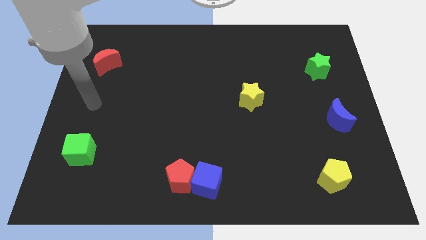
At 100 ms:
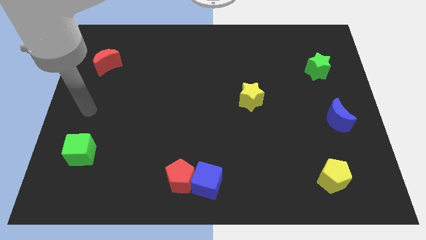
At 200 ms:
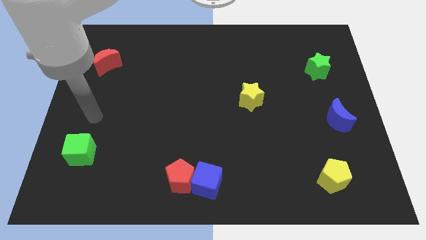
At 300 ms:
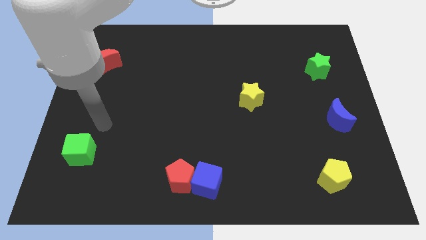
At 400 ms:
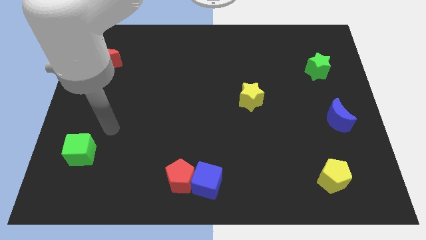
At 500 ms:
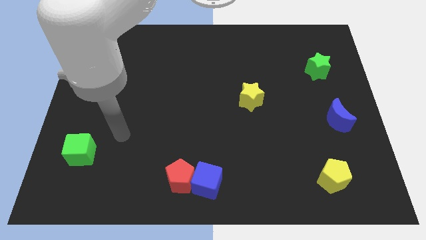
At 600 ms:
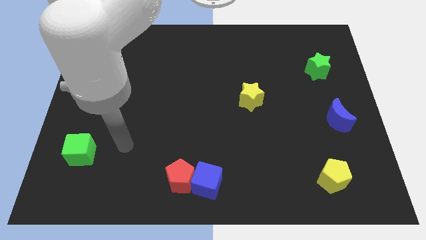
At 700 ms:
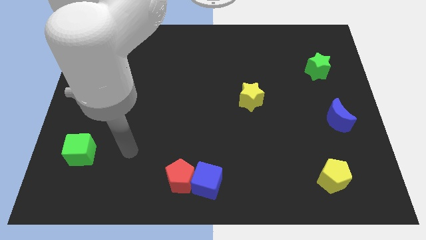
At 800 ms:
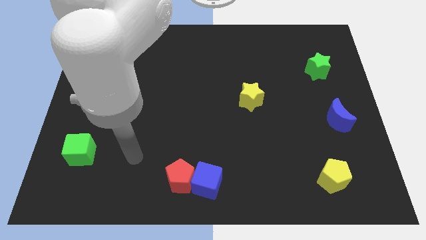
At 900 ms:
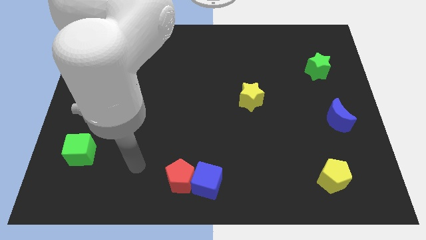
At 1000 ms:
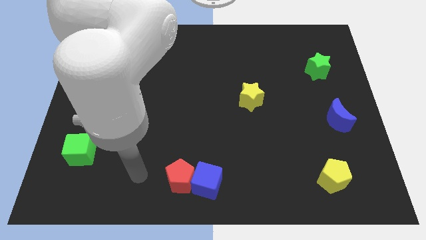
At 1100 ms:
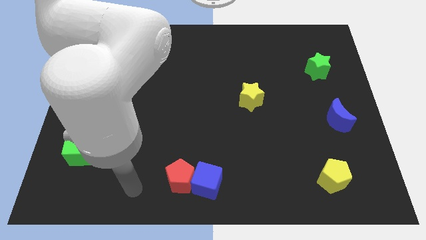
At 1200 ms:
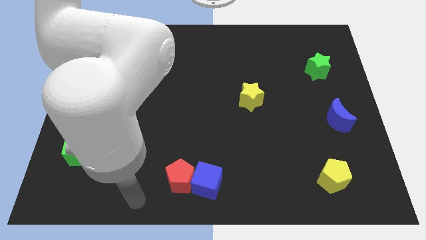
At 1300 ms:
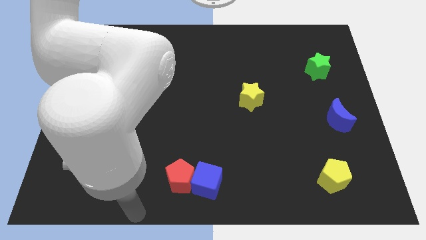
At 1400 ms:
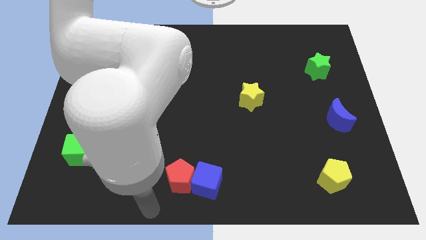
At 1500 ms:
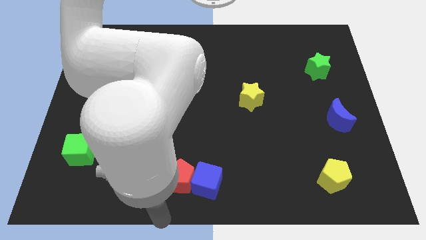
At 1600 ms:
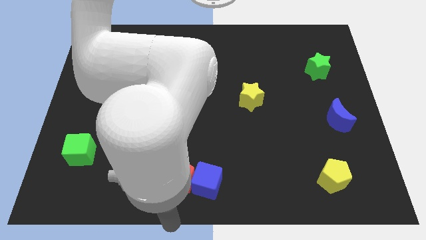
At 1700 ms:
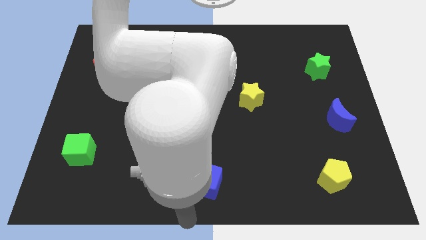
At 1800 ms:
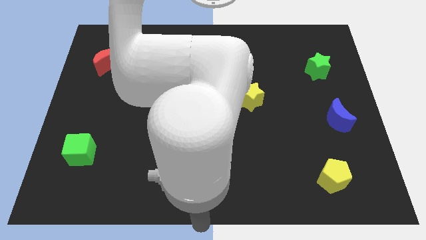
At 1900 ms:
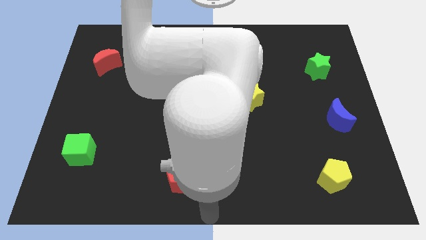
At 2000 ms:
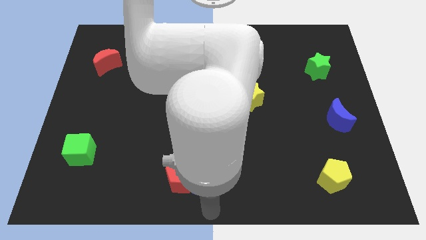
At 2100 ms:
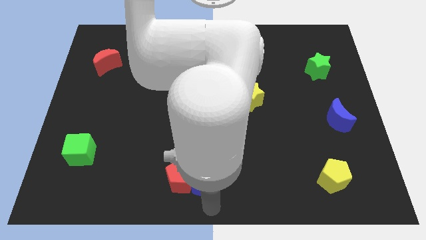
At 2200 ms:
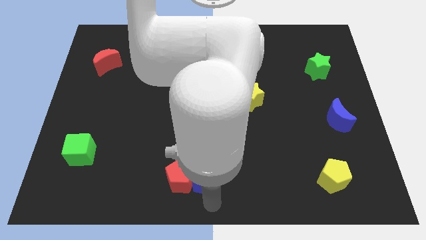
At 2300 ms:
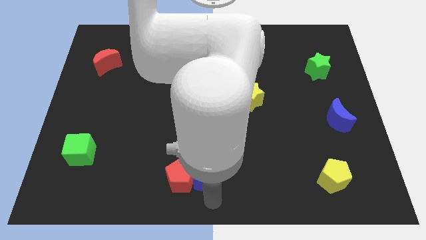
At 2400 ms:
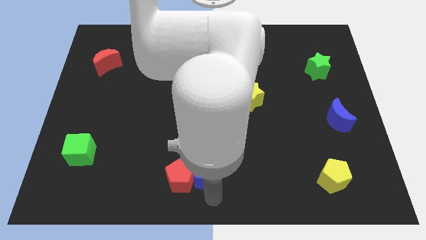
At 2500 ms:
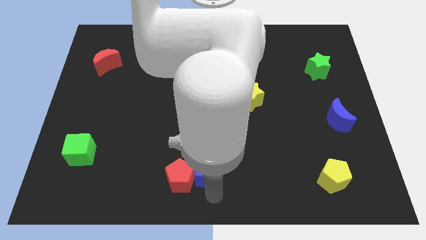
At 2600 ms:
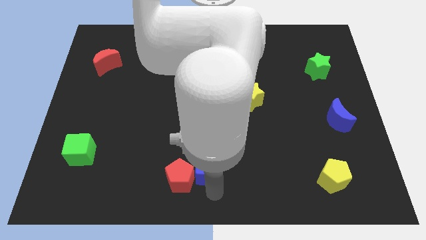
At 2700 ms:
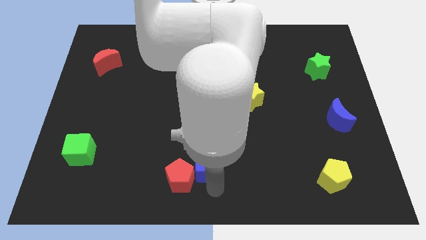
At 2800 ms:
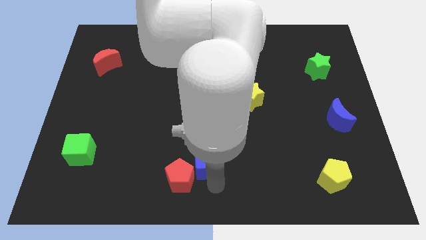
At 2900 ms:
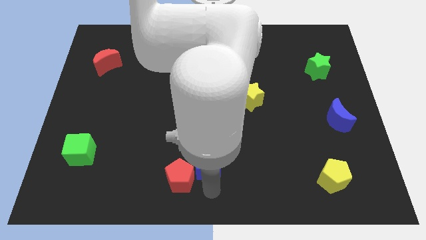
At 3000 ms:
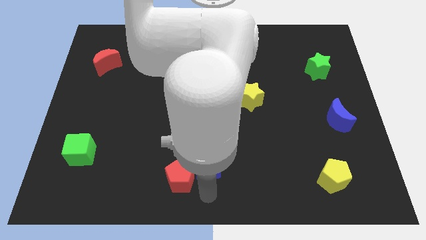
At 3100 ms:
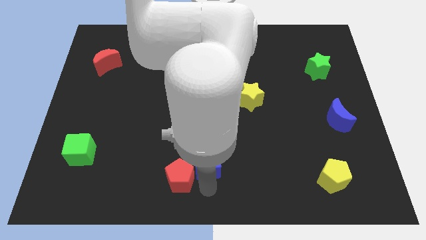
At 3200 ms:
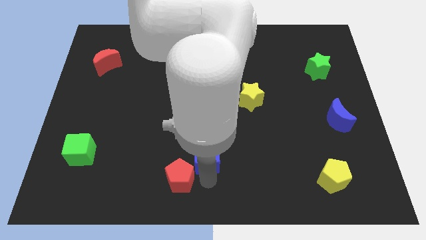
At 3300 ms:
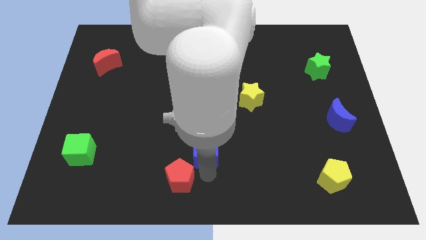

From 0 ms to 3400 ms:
slide the blue cube slightly upwards

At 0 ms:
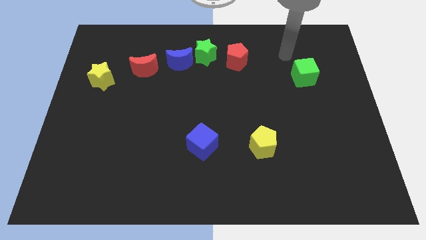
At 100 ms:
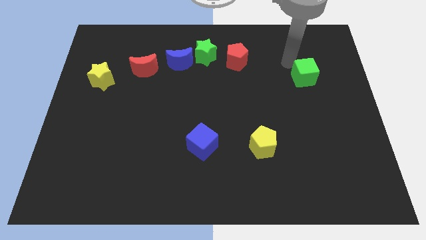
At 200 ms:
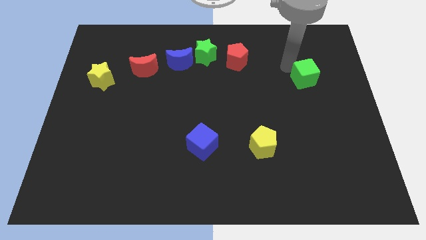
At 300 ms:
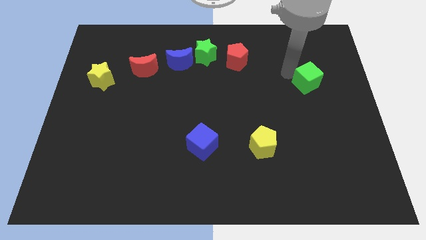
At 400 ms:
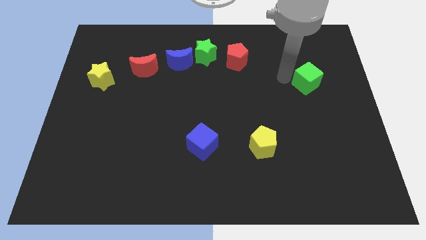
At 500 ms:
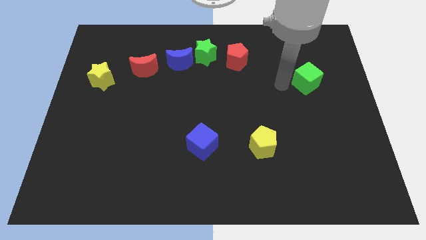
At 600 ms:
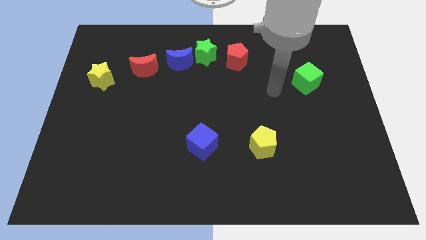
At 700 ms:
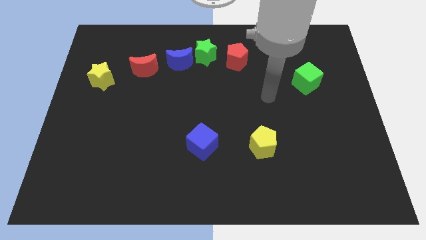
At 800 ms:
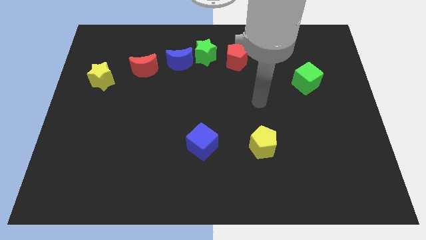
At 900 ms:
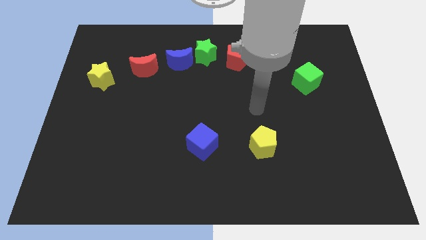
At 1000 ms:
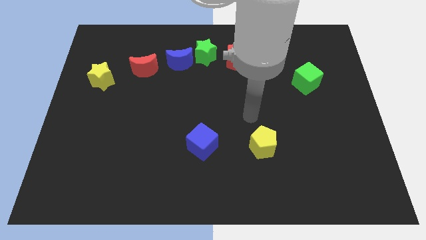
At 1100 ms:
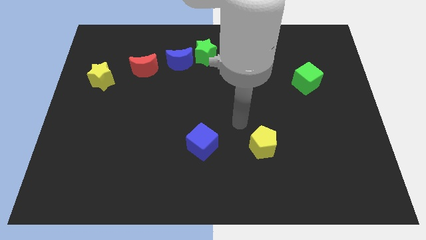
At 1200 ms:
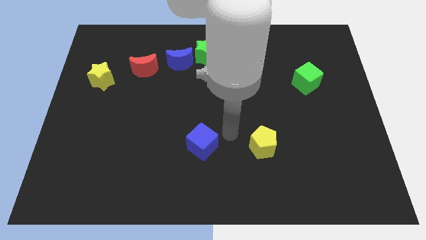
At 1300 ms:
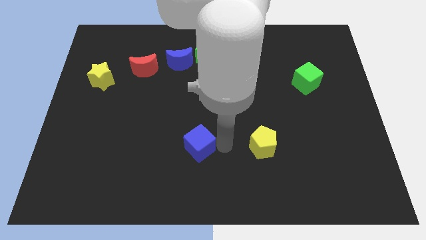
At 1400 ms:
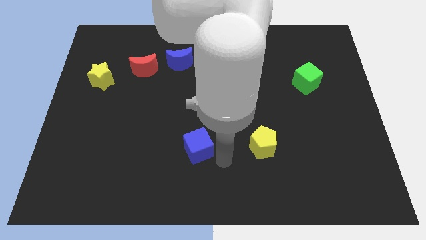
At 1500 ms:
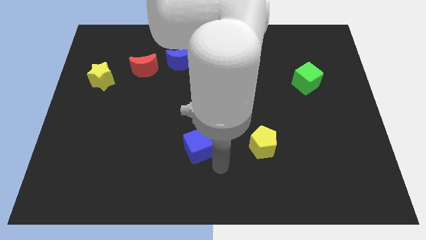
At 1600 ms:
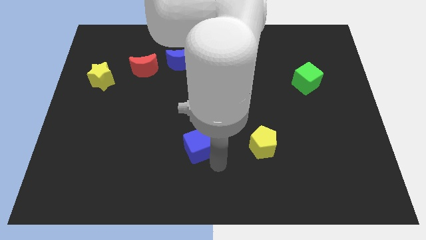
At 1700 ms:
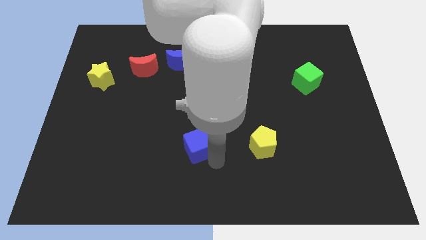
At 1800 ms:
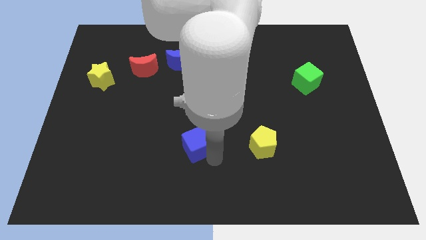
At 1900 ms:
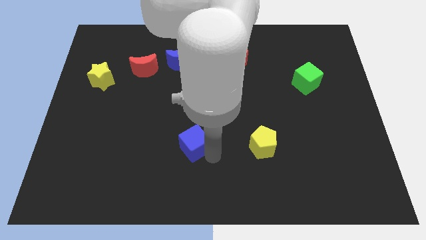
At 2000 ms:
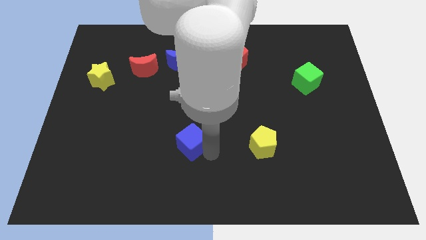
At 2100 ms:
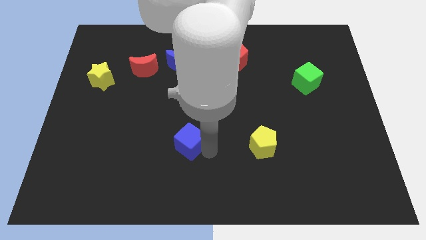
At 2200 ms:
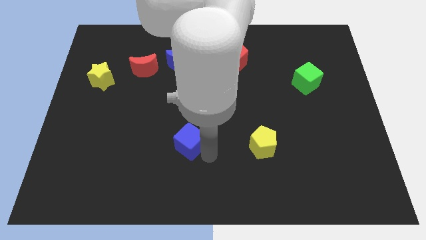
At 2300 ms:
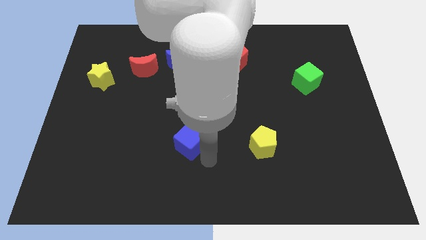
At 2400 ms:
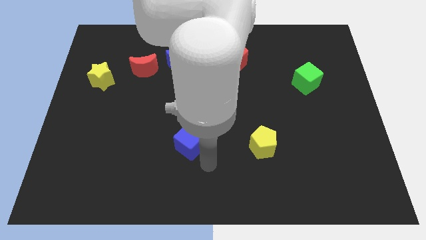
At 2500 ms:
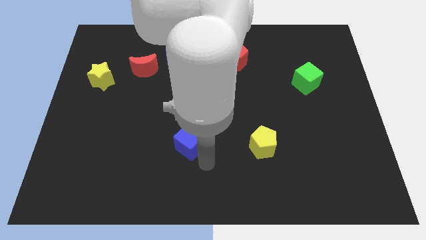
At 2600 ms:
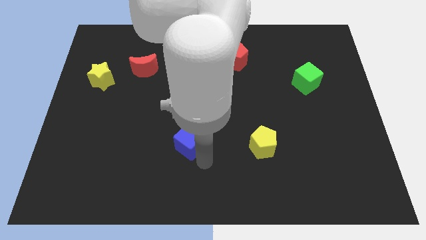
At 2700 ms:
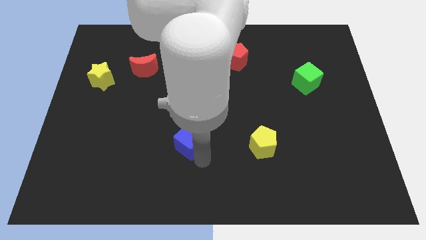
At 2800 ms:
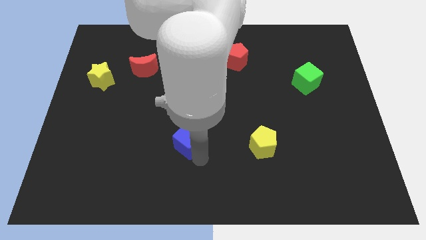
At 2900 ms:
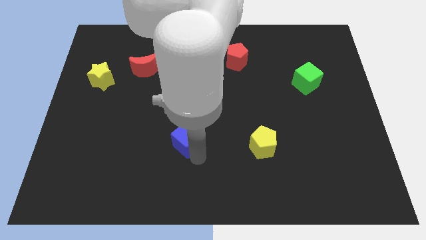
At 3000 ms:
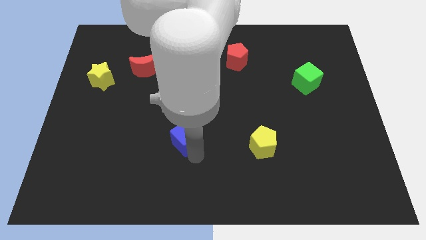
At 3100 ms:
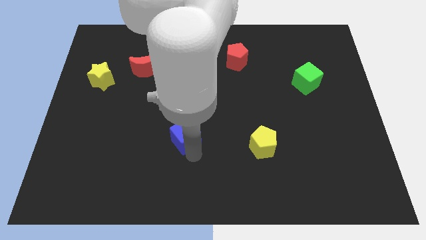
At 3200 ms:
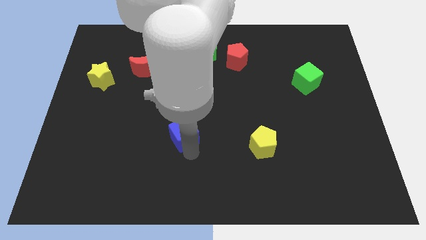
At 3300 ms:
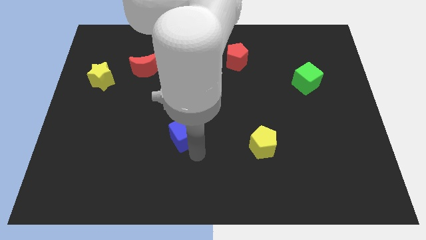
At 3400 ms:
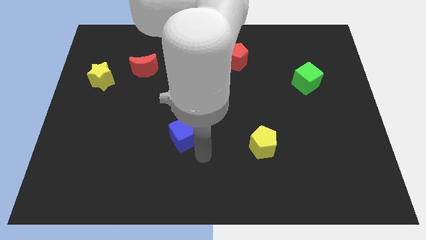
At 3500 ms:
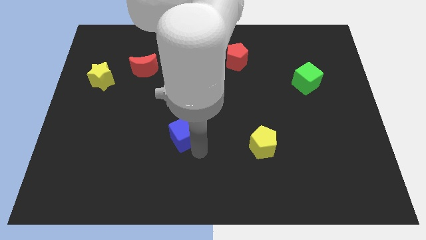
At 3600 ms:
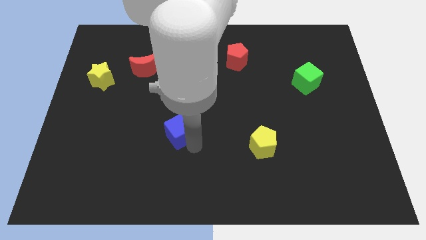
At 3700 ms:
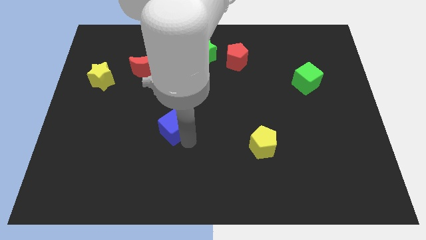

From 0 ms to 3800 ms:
slide the blue cube a little bit up and left diagonally

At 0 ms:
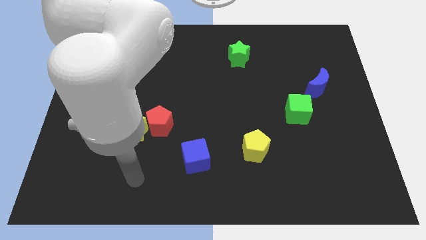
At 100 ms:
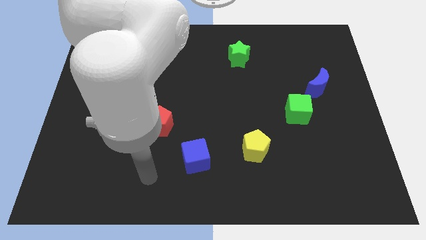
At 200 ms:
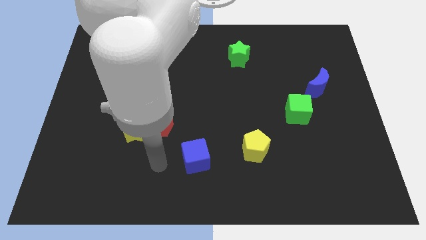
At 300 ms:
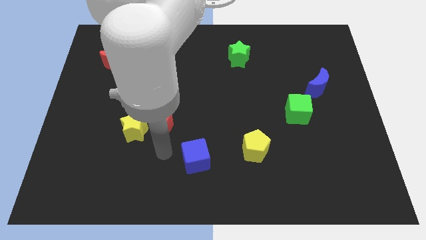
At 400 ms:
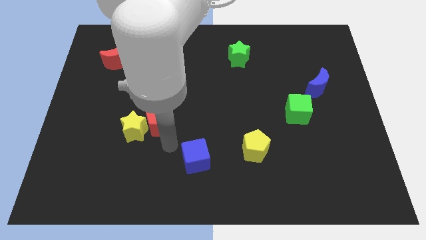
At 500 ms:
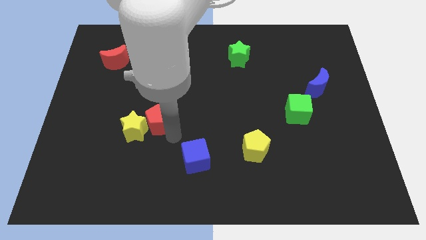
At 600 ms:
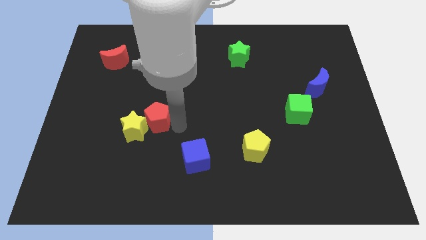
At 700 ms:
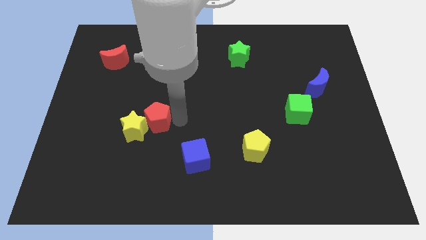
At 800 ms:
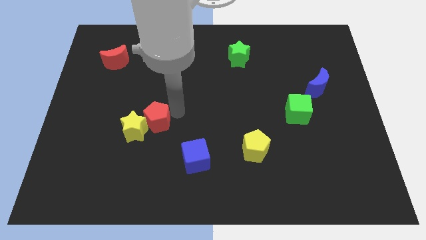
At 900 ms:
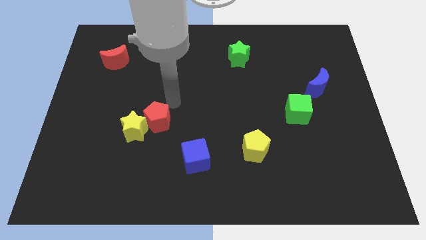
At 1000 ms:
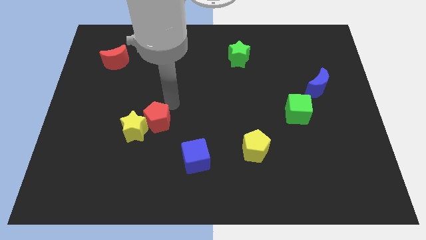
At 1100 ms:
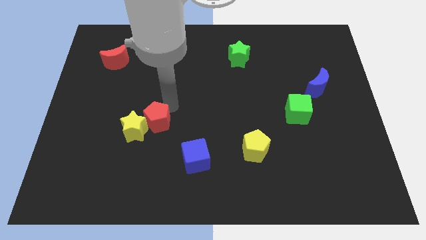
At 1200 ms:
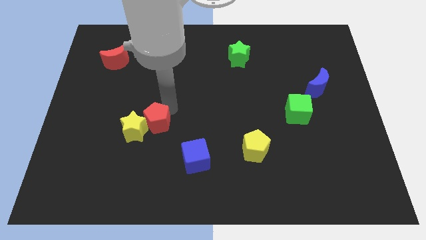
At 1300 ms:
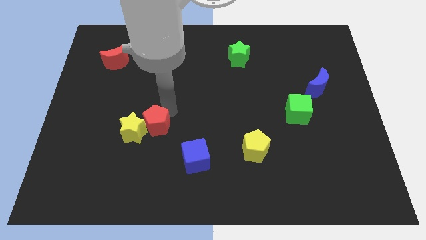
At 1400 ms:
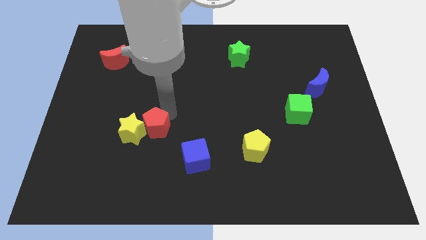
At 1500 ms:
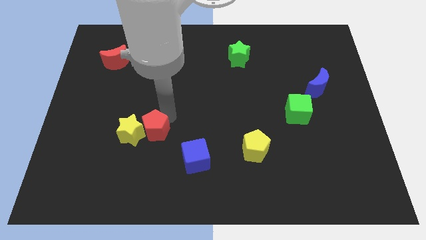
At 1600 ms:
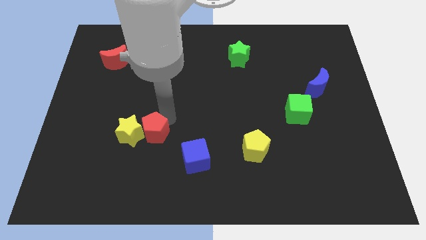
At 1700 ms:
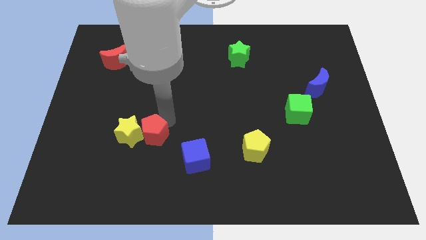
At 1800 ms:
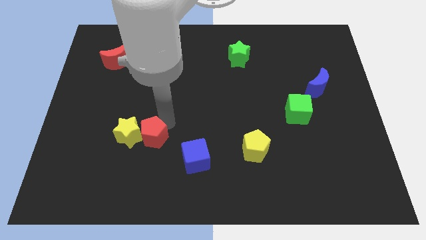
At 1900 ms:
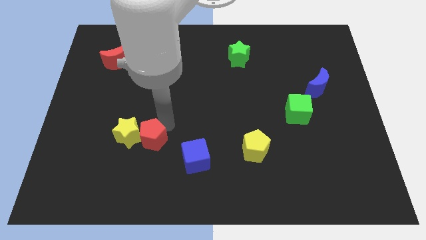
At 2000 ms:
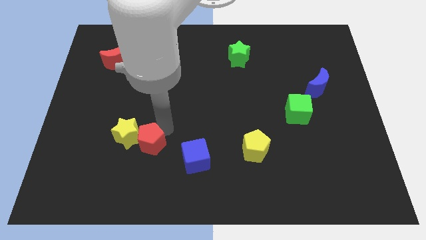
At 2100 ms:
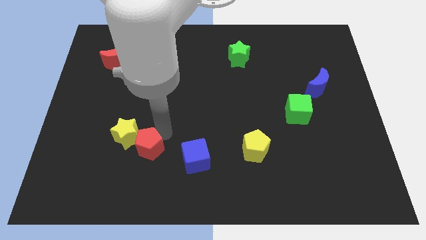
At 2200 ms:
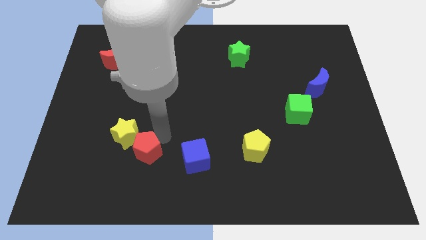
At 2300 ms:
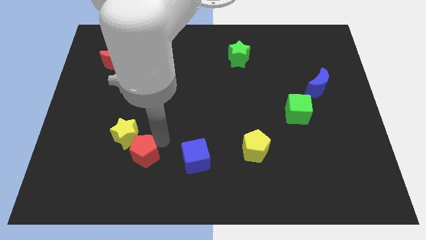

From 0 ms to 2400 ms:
slightly move the red pentagon downwards and to the left
